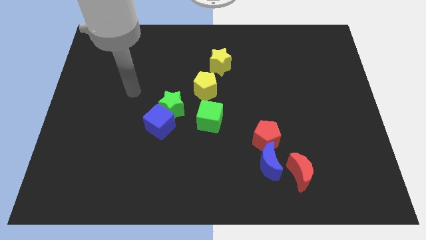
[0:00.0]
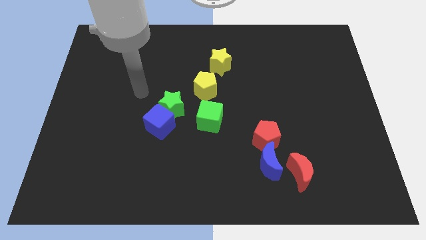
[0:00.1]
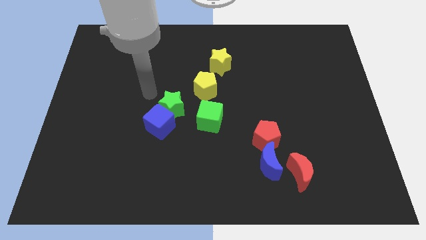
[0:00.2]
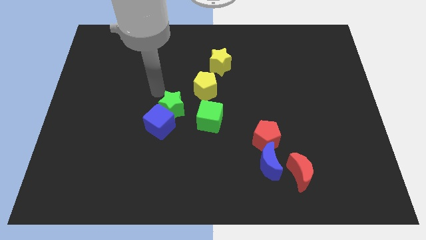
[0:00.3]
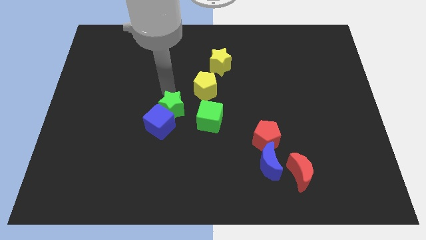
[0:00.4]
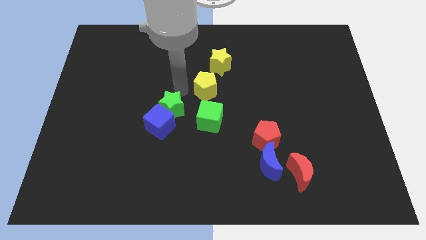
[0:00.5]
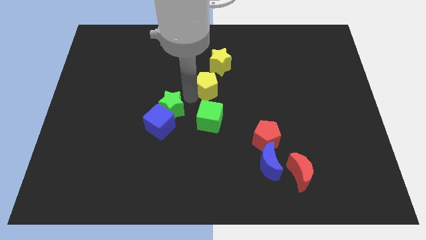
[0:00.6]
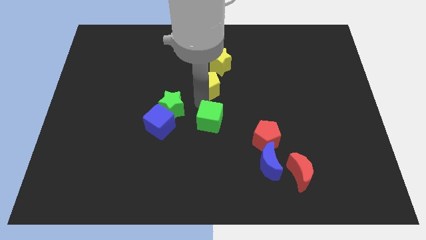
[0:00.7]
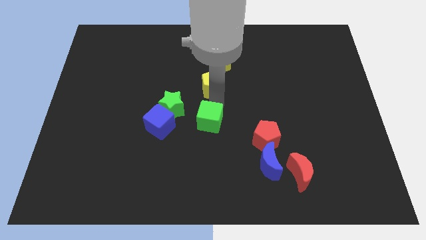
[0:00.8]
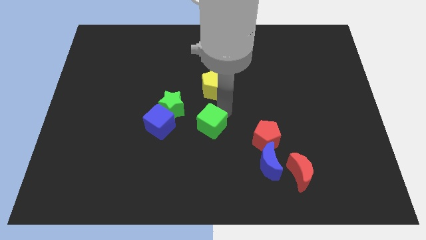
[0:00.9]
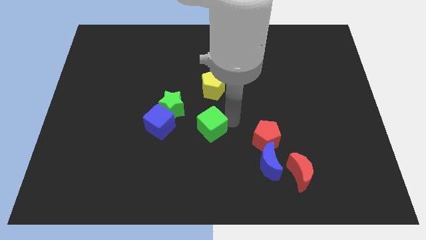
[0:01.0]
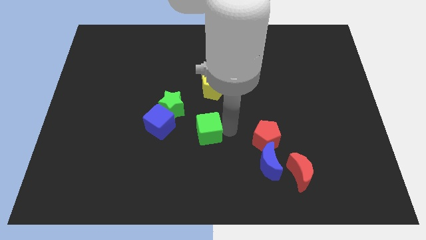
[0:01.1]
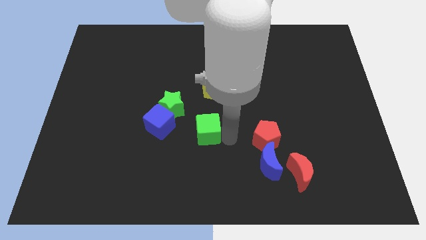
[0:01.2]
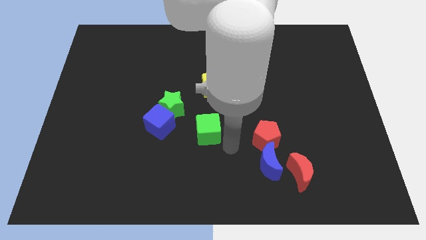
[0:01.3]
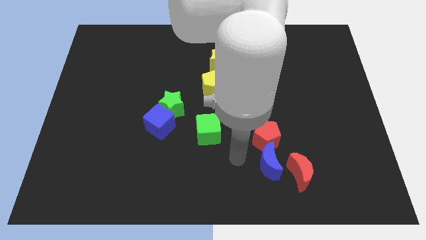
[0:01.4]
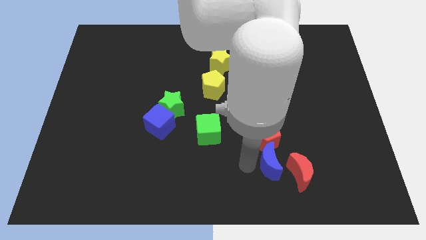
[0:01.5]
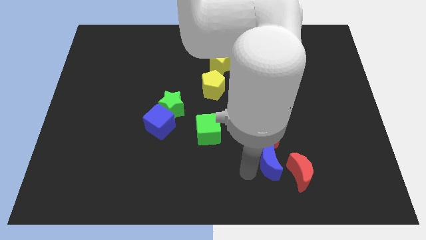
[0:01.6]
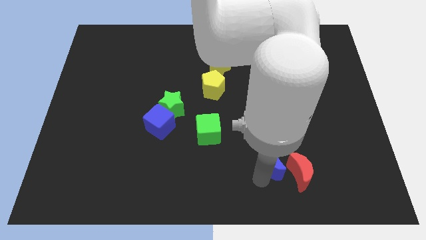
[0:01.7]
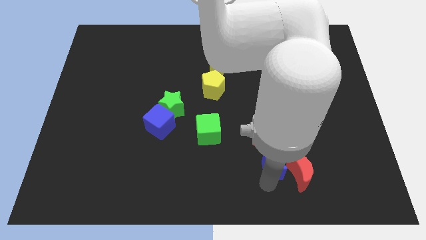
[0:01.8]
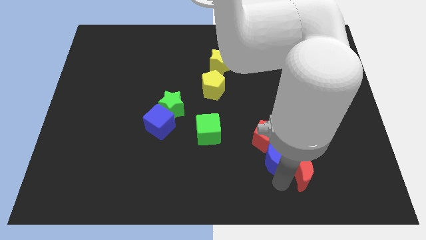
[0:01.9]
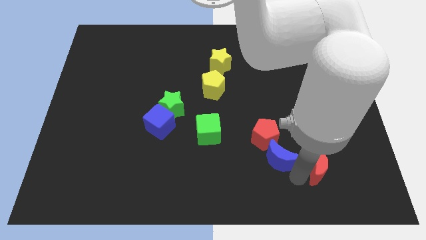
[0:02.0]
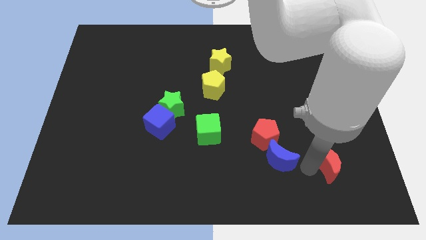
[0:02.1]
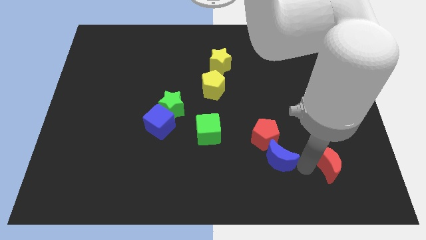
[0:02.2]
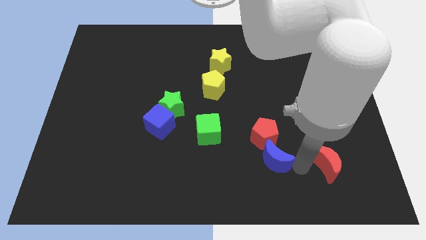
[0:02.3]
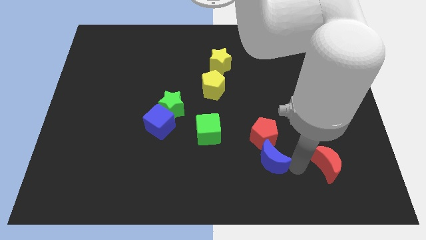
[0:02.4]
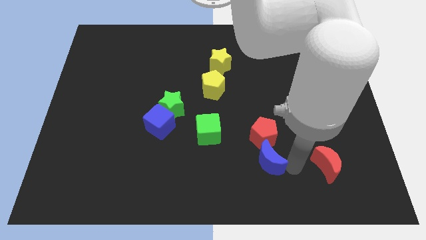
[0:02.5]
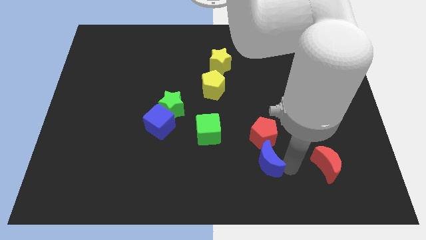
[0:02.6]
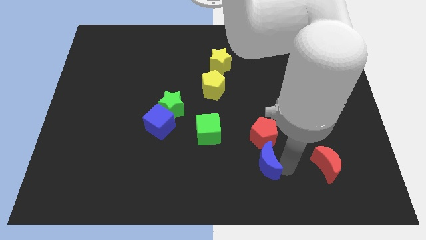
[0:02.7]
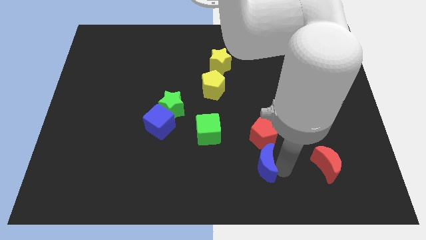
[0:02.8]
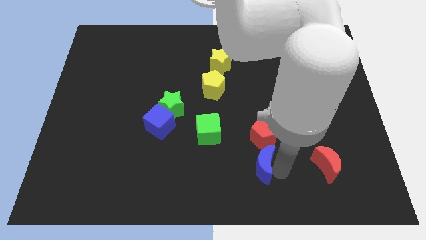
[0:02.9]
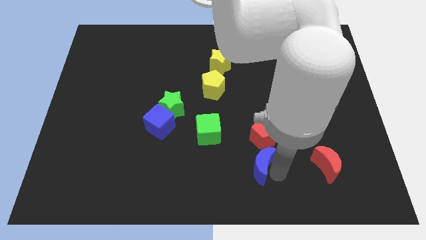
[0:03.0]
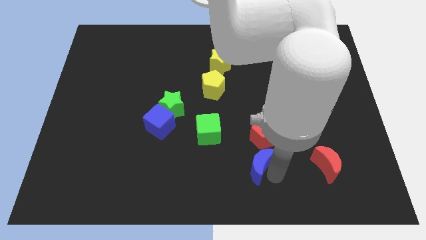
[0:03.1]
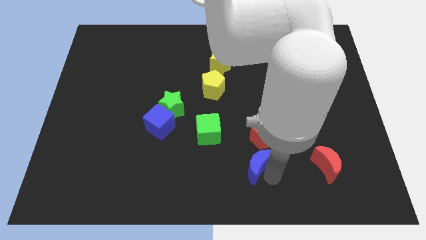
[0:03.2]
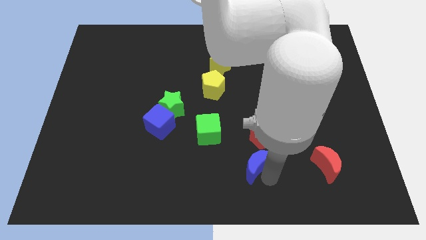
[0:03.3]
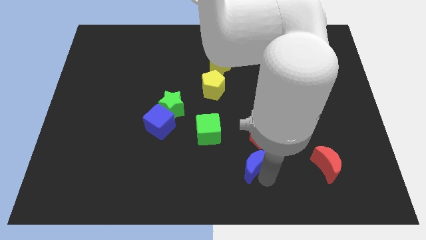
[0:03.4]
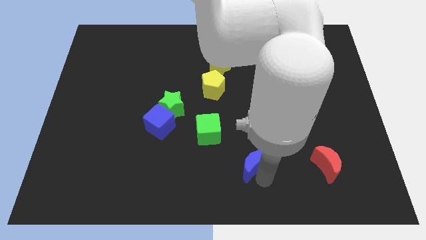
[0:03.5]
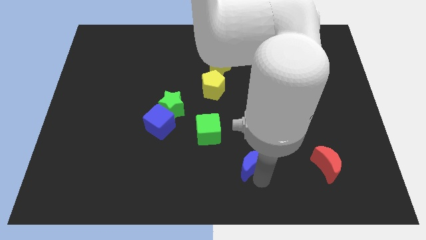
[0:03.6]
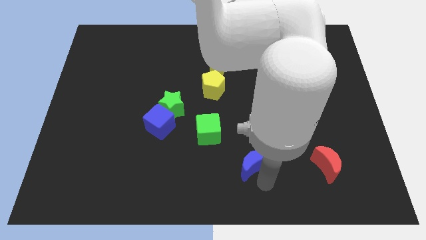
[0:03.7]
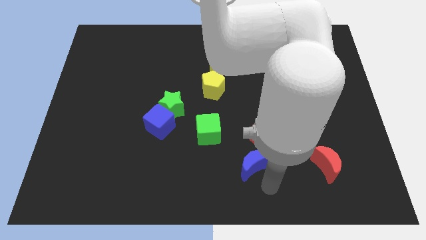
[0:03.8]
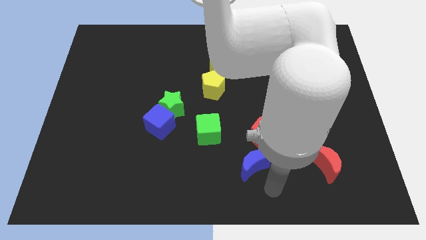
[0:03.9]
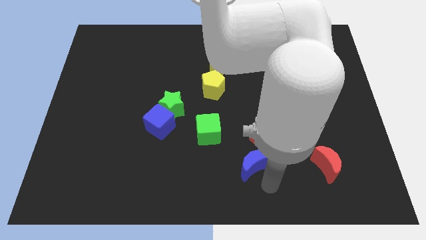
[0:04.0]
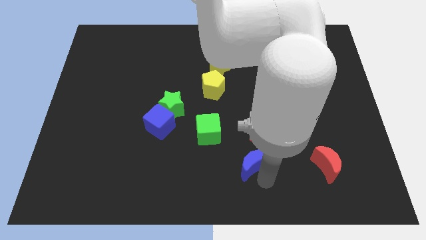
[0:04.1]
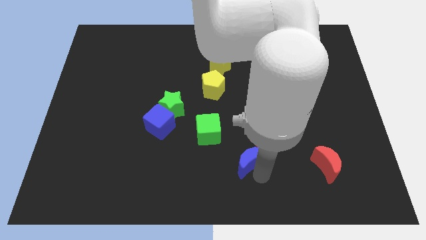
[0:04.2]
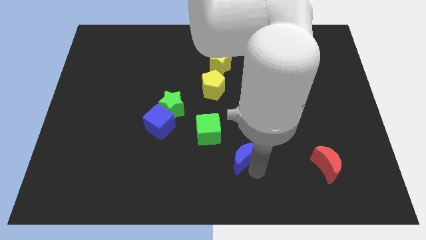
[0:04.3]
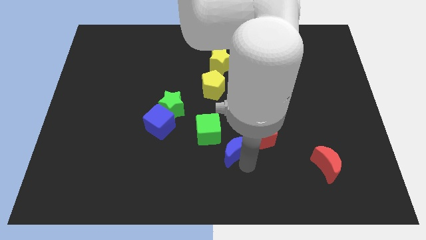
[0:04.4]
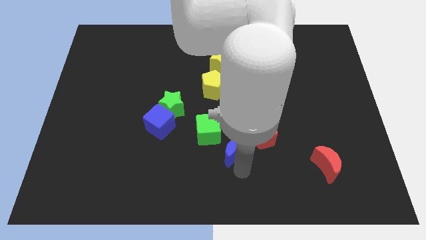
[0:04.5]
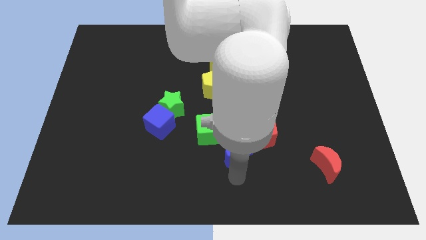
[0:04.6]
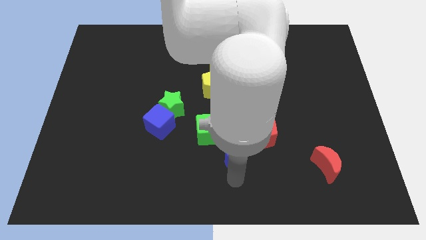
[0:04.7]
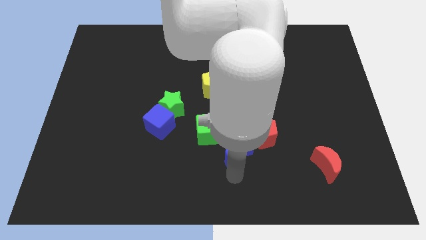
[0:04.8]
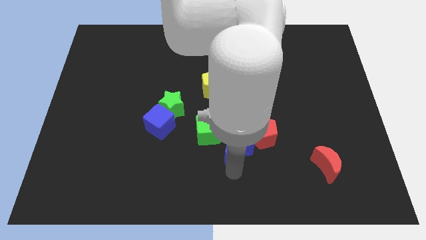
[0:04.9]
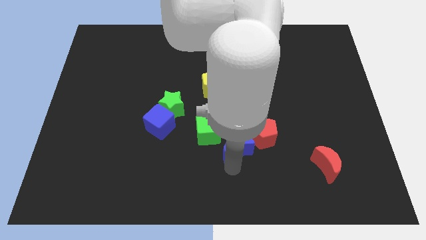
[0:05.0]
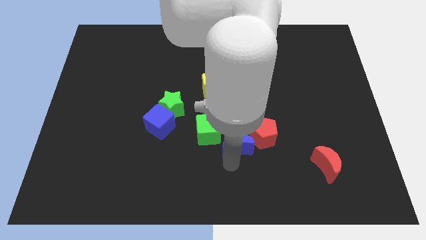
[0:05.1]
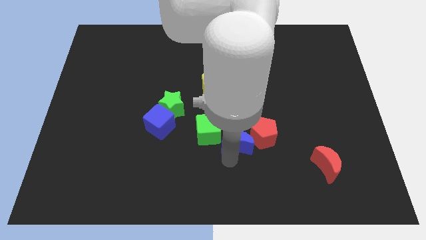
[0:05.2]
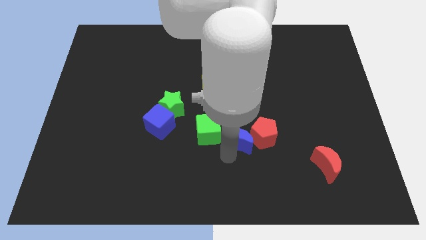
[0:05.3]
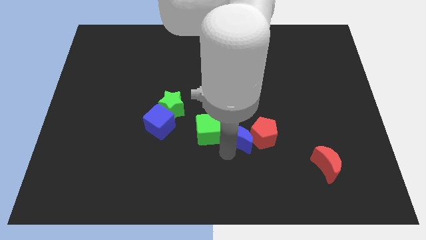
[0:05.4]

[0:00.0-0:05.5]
slide the blue moon to the top left of the red pentagon

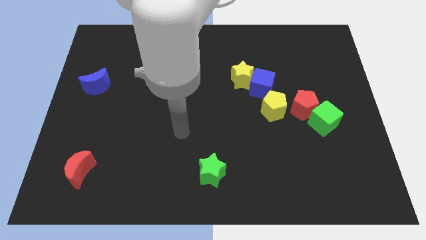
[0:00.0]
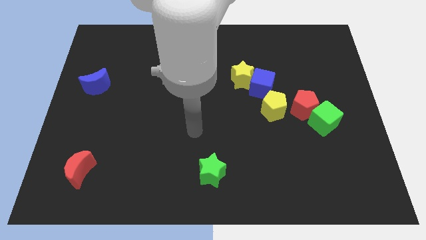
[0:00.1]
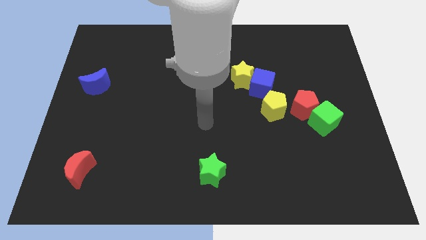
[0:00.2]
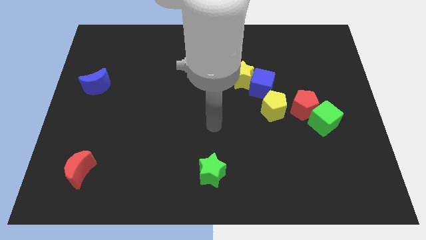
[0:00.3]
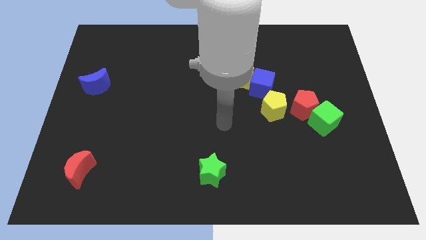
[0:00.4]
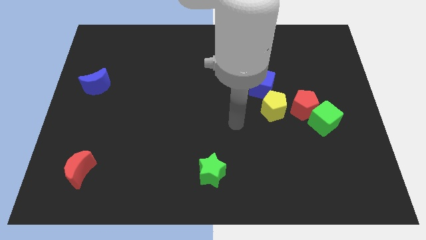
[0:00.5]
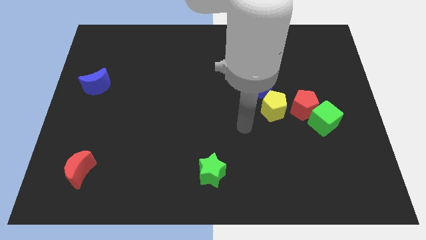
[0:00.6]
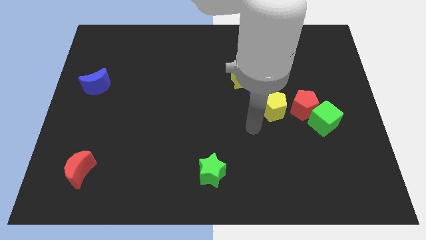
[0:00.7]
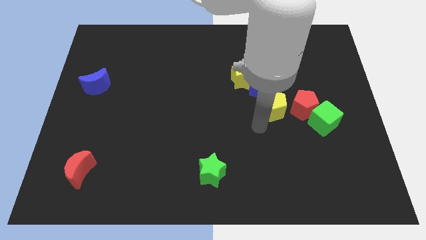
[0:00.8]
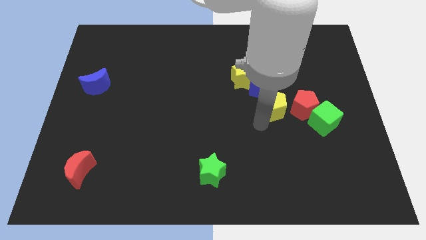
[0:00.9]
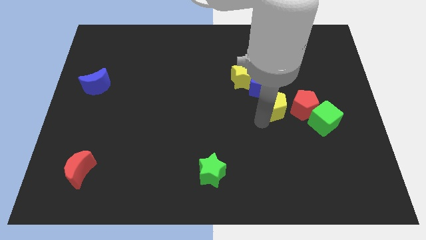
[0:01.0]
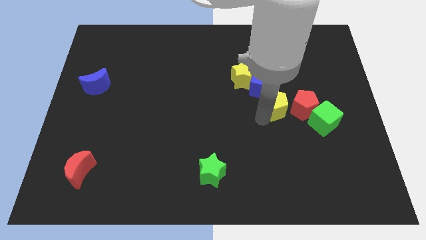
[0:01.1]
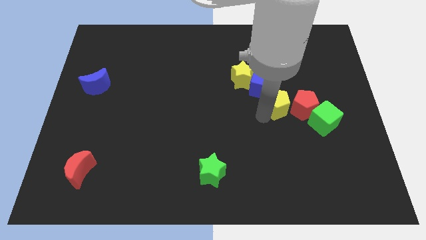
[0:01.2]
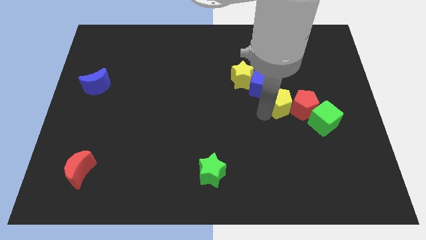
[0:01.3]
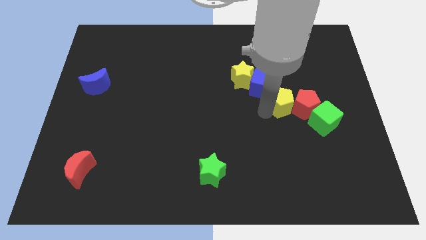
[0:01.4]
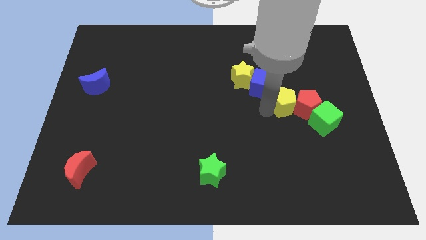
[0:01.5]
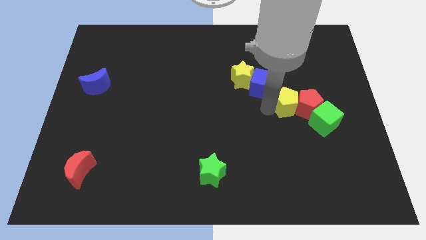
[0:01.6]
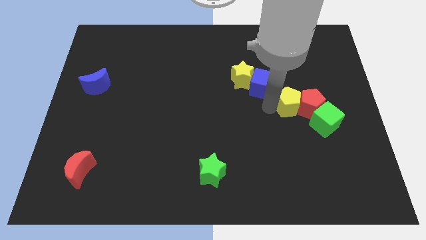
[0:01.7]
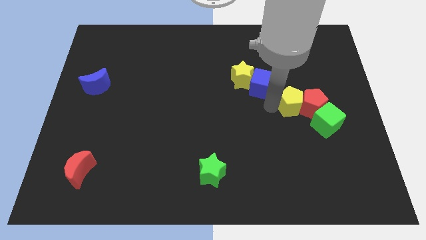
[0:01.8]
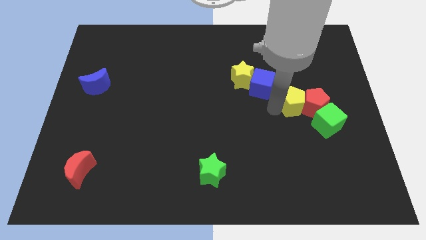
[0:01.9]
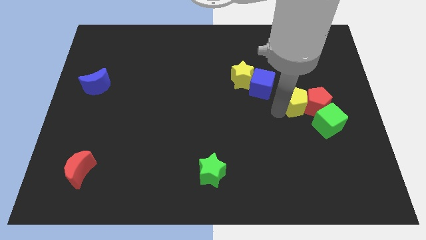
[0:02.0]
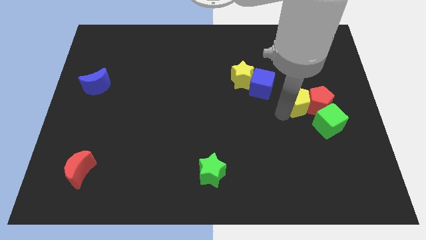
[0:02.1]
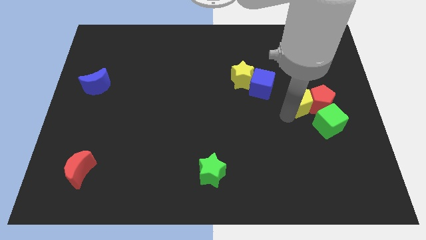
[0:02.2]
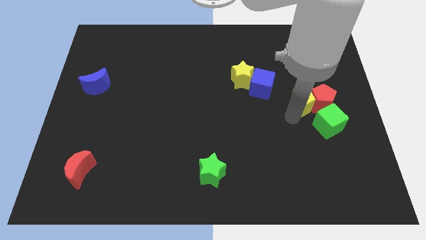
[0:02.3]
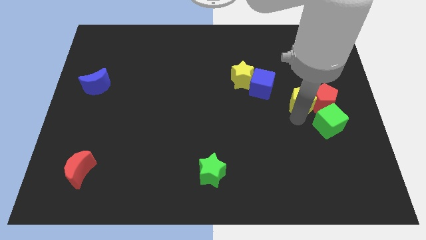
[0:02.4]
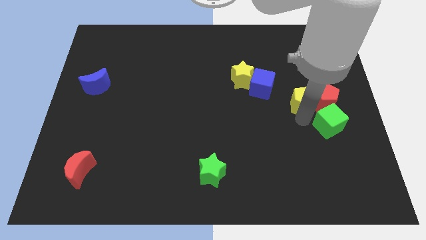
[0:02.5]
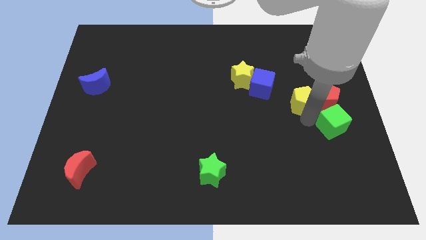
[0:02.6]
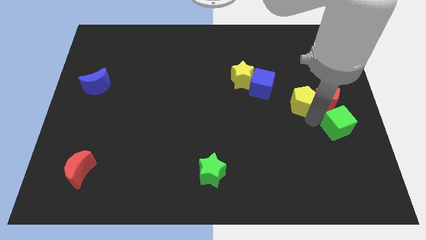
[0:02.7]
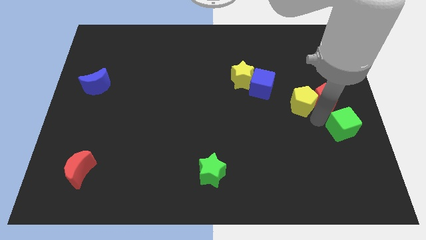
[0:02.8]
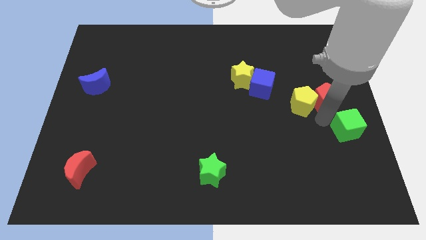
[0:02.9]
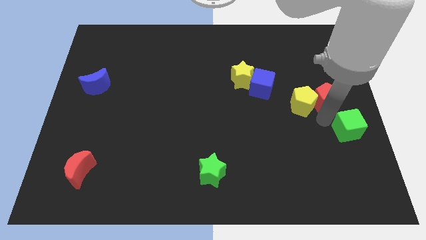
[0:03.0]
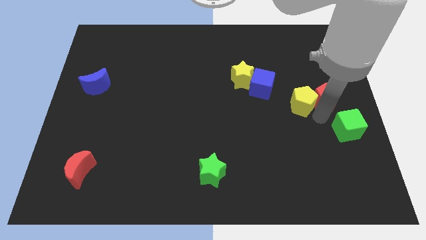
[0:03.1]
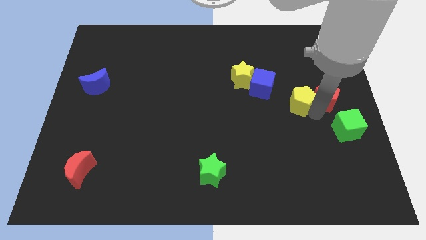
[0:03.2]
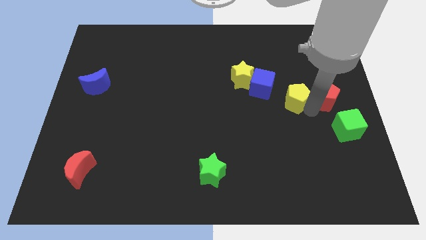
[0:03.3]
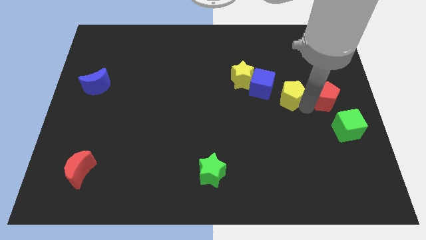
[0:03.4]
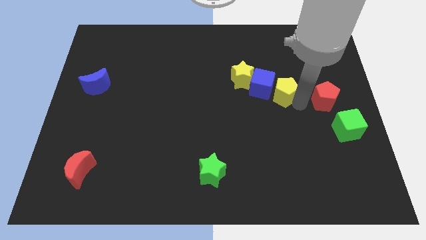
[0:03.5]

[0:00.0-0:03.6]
slide the yellow pentagon right of the yellow star
